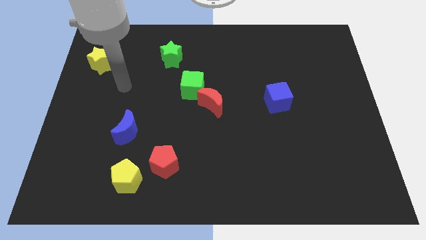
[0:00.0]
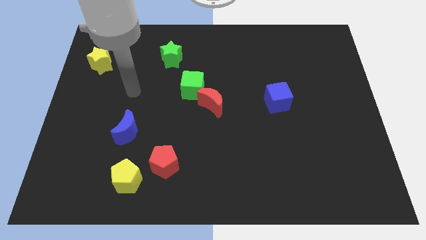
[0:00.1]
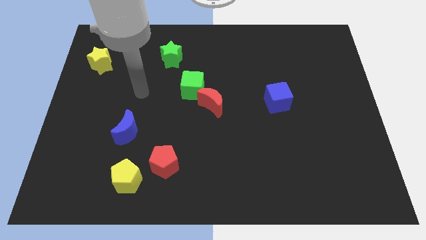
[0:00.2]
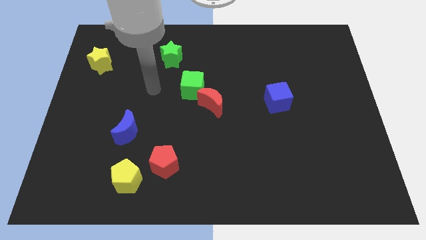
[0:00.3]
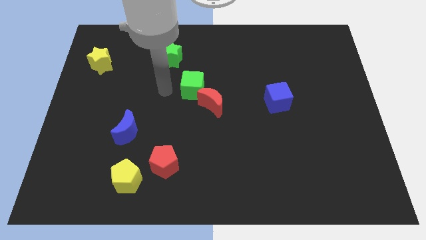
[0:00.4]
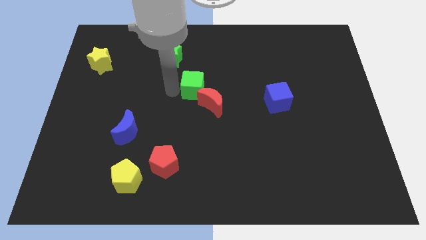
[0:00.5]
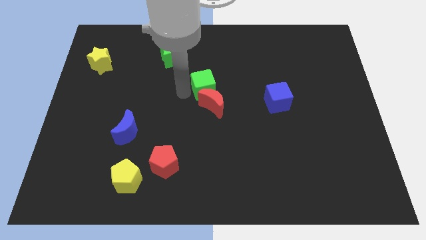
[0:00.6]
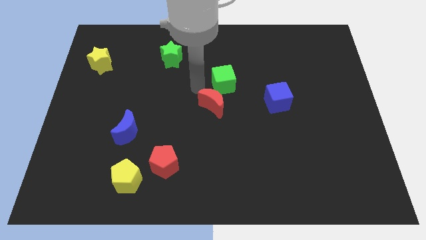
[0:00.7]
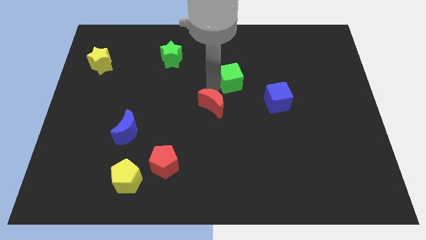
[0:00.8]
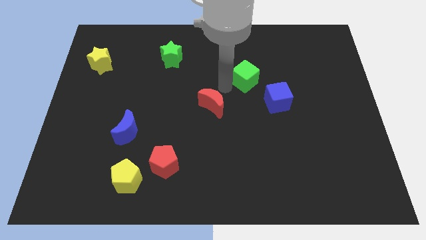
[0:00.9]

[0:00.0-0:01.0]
separate the red moon from the green cube

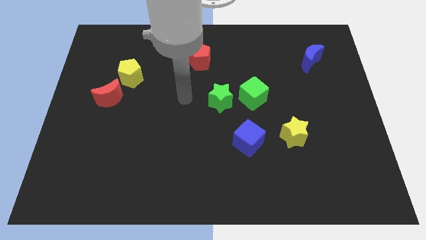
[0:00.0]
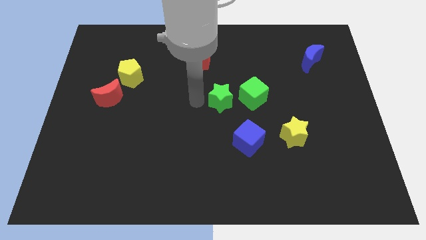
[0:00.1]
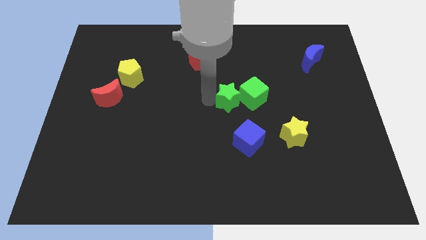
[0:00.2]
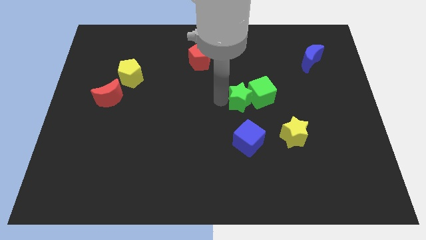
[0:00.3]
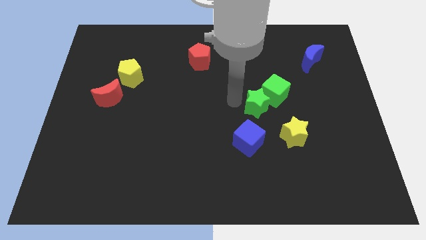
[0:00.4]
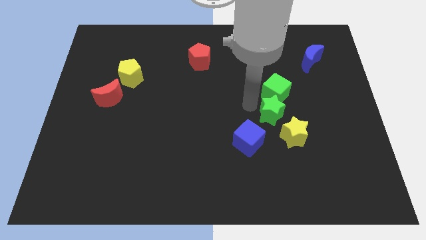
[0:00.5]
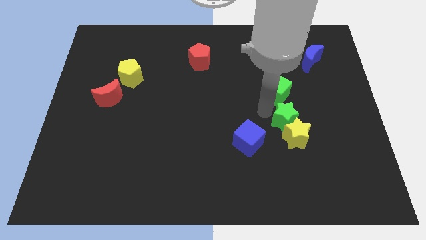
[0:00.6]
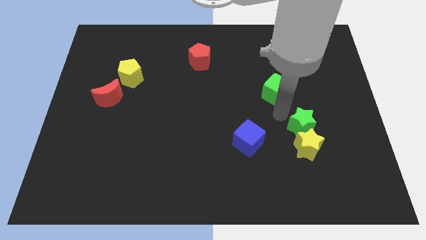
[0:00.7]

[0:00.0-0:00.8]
pull the green cube apart from the green star

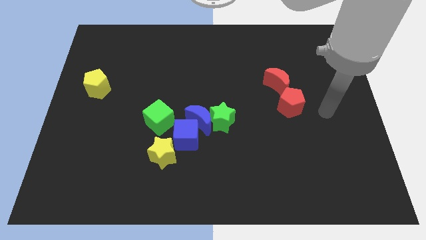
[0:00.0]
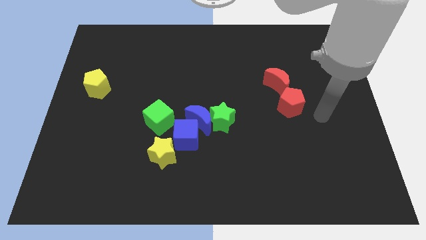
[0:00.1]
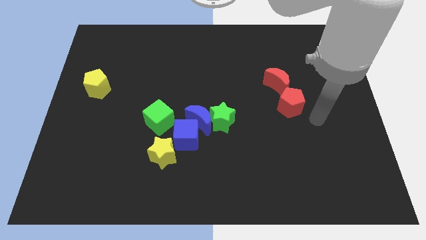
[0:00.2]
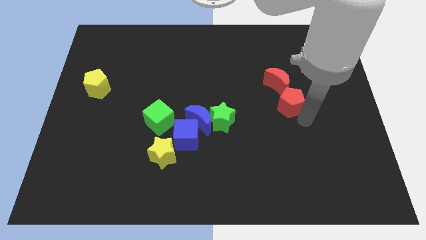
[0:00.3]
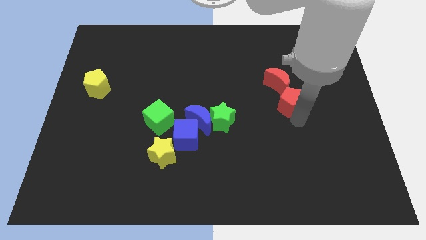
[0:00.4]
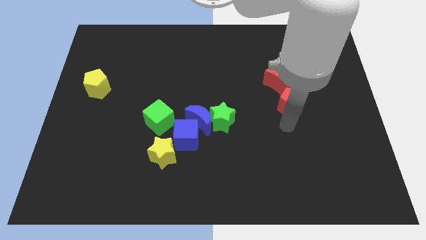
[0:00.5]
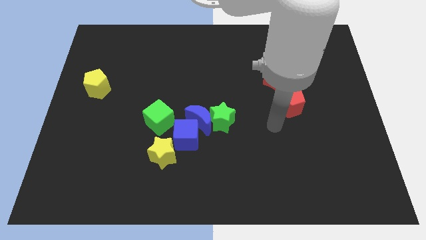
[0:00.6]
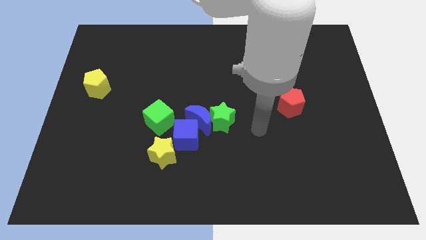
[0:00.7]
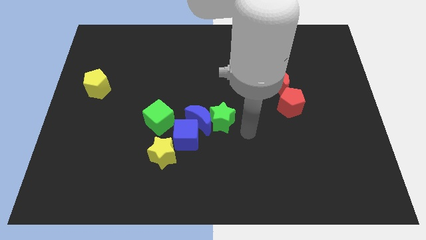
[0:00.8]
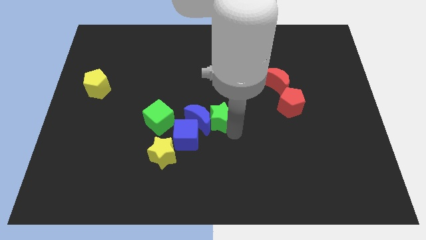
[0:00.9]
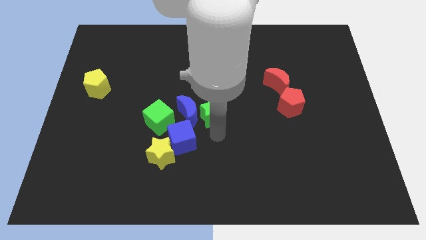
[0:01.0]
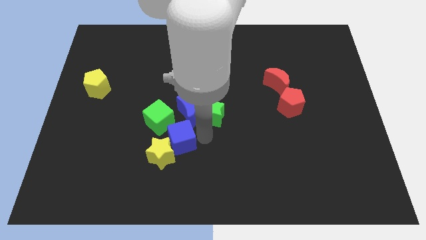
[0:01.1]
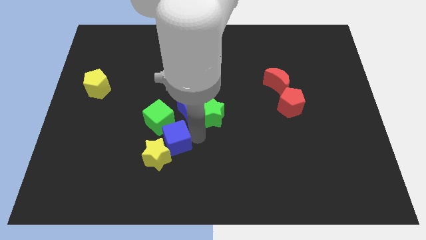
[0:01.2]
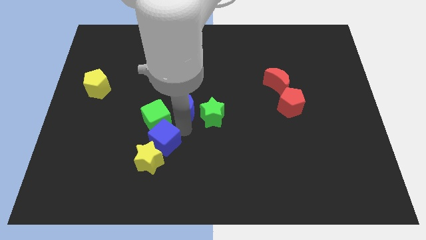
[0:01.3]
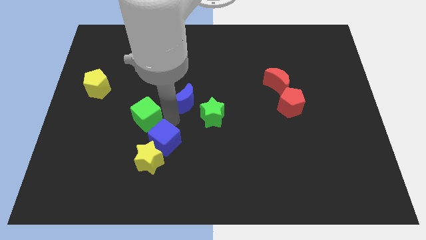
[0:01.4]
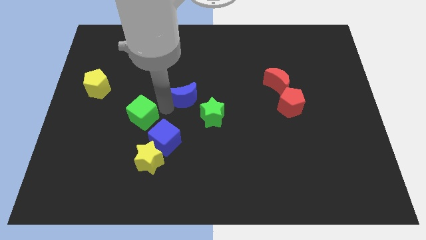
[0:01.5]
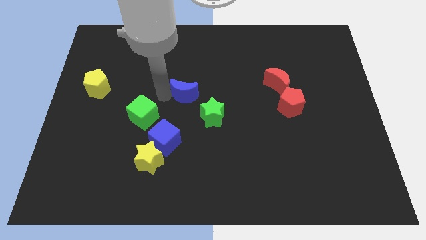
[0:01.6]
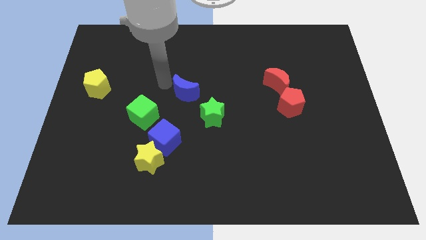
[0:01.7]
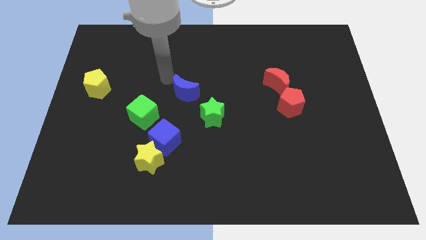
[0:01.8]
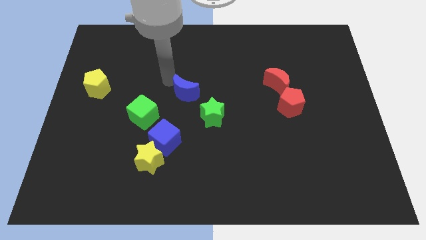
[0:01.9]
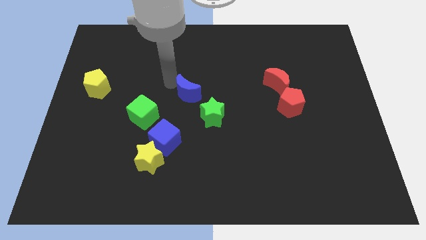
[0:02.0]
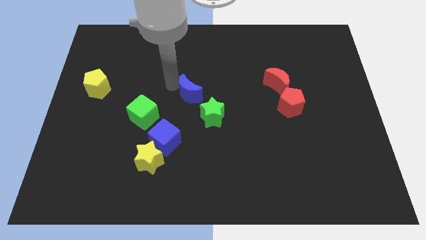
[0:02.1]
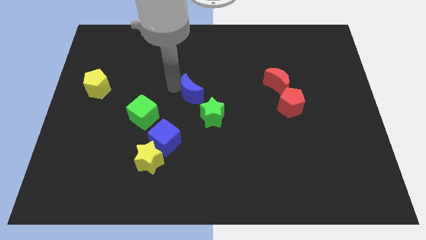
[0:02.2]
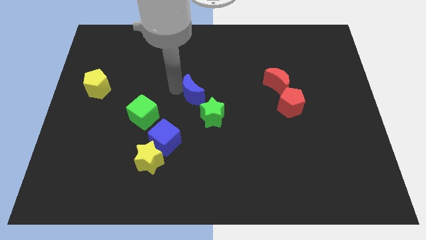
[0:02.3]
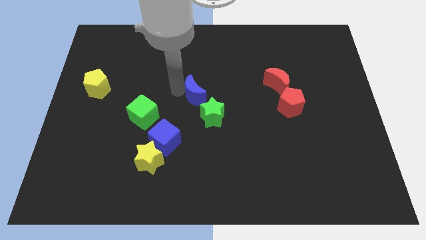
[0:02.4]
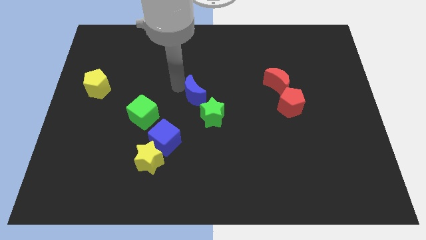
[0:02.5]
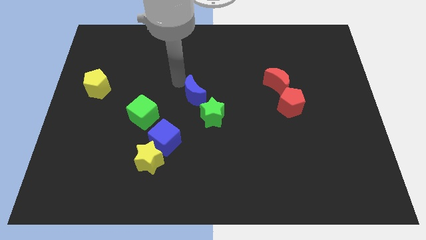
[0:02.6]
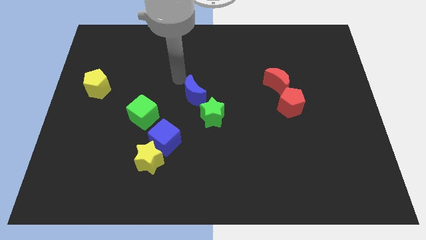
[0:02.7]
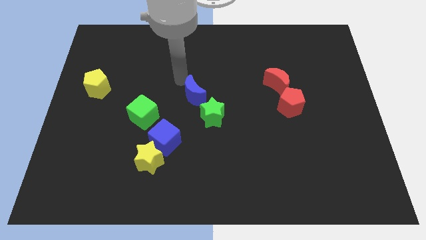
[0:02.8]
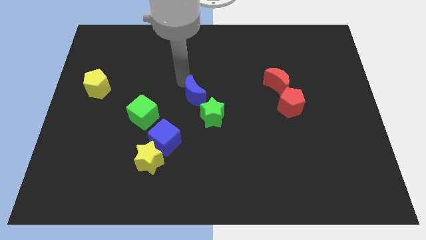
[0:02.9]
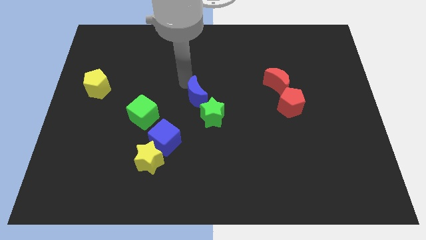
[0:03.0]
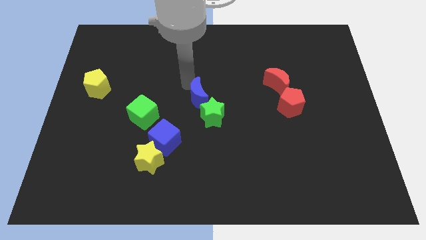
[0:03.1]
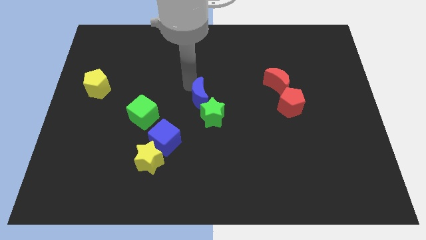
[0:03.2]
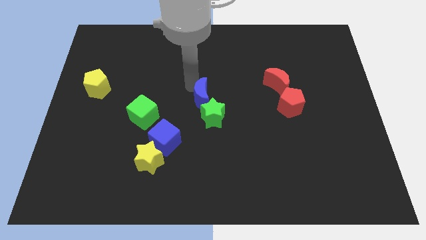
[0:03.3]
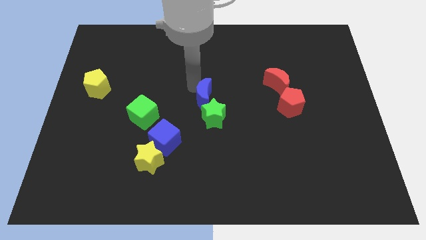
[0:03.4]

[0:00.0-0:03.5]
separate the blue moon from the green star, blue cube, and green cube

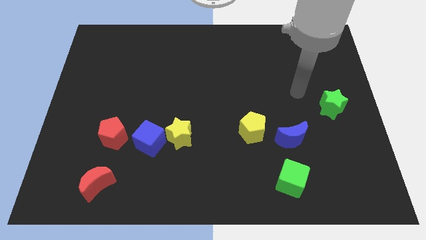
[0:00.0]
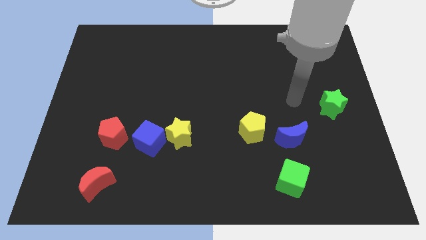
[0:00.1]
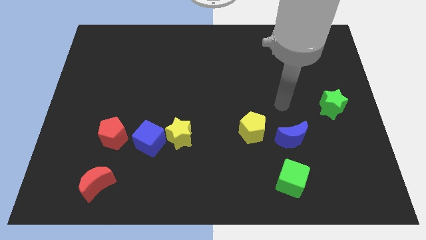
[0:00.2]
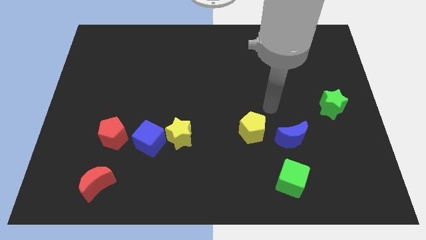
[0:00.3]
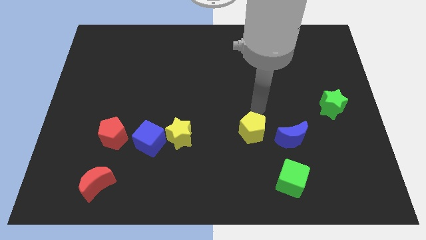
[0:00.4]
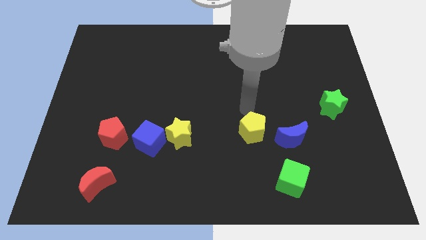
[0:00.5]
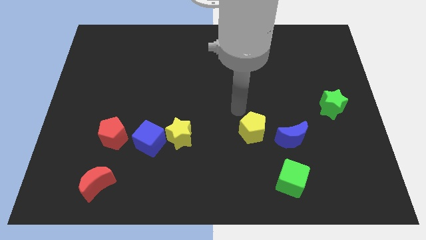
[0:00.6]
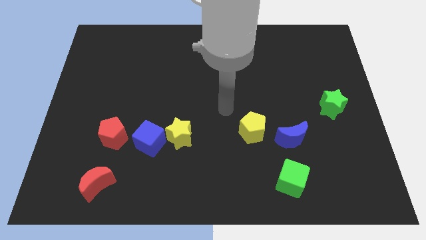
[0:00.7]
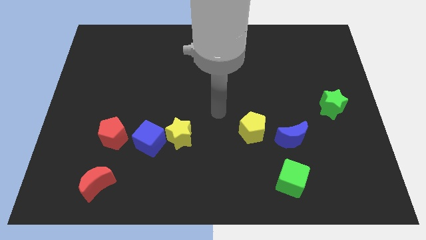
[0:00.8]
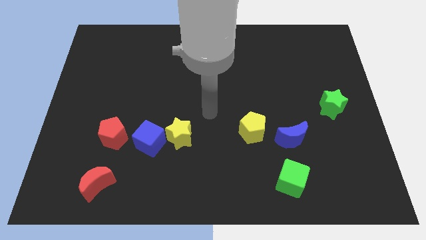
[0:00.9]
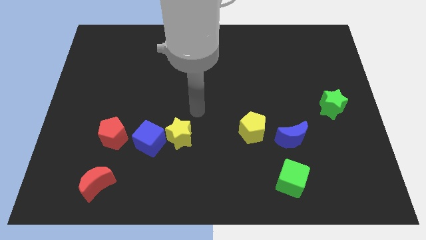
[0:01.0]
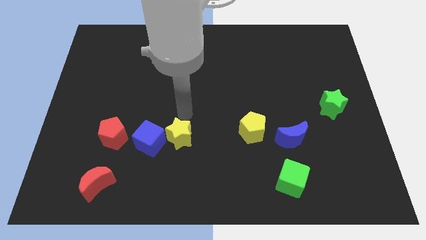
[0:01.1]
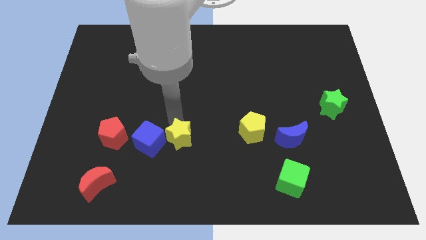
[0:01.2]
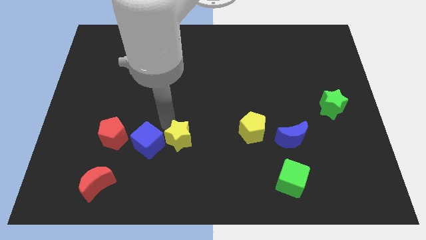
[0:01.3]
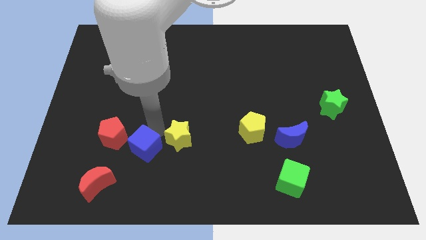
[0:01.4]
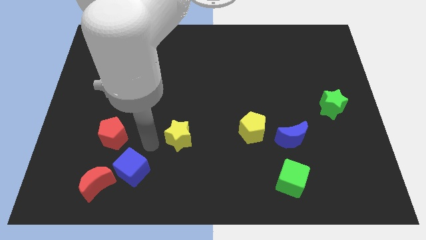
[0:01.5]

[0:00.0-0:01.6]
pull the yellow star apart from the blue cube

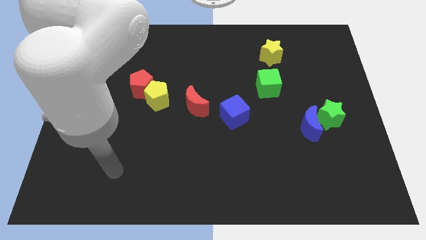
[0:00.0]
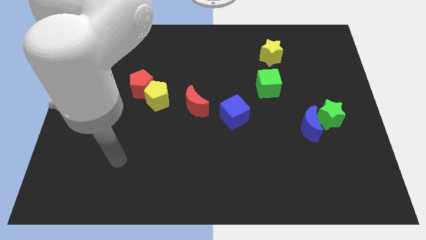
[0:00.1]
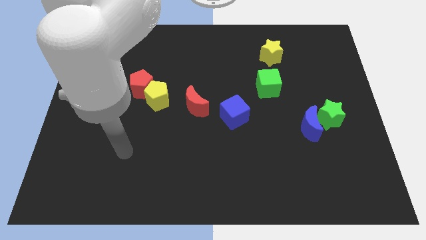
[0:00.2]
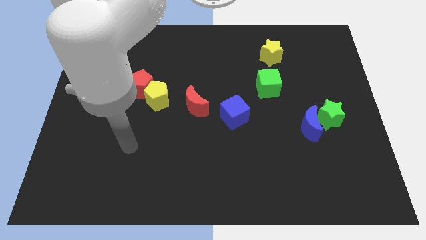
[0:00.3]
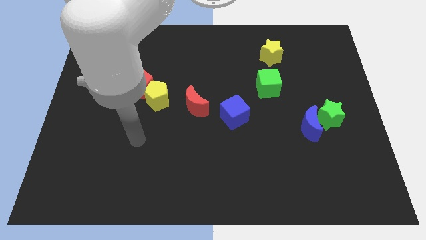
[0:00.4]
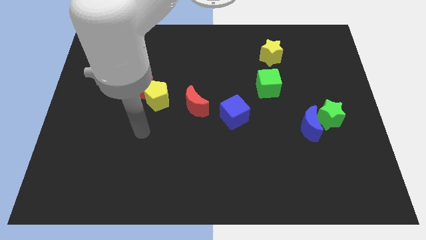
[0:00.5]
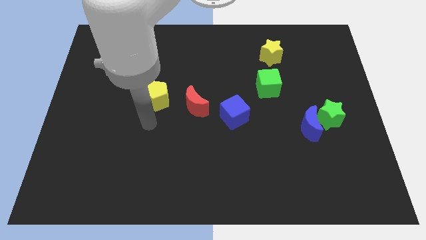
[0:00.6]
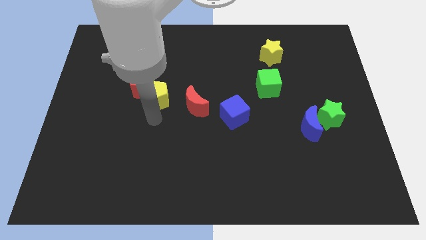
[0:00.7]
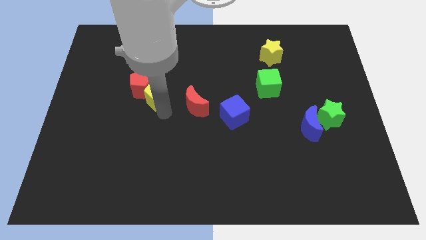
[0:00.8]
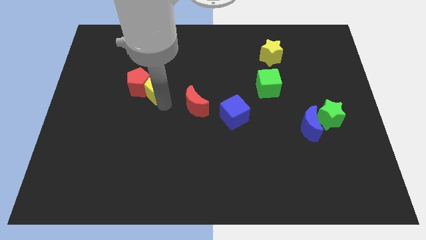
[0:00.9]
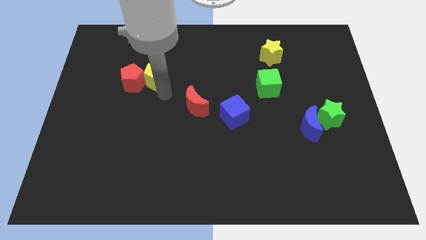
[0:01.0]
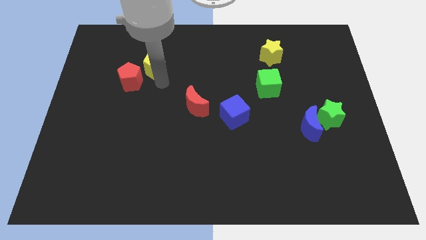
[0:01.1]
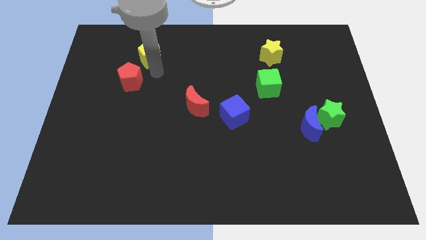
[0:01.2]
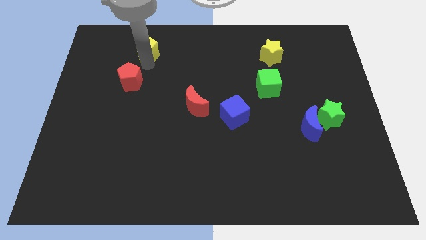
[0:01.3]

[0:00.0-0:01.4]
pull the red pentagon apart from the yellow pentagon

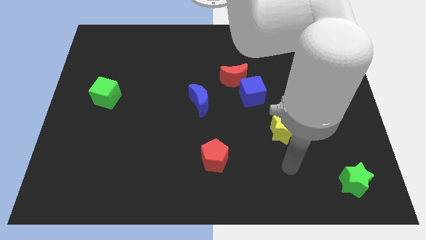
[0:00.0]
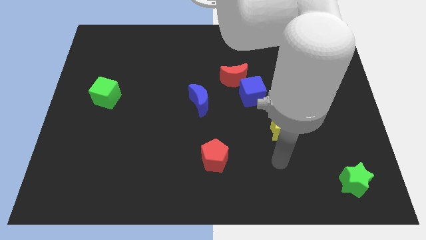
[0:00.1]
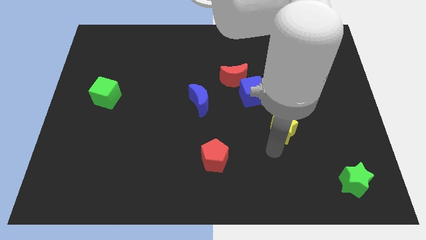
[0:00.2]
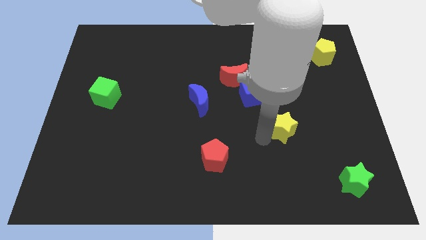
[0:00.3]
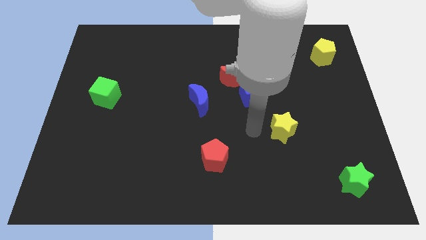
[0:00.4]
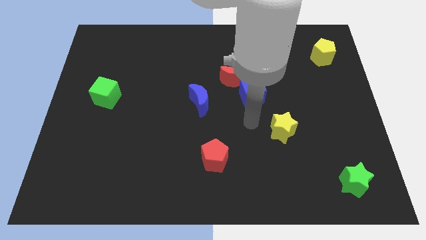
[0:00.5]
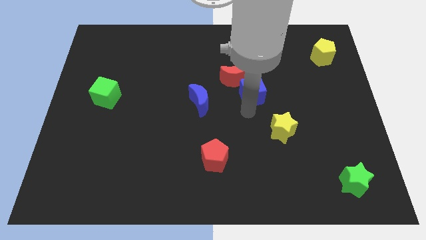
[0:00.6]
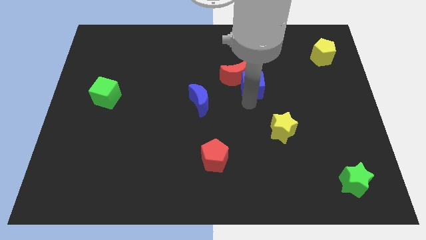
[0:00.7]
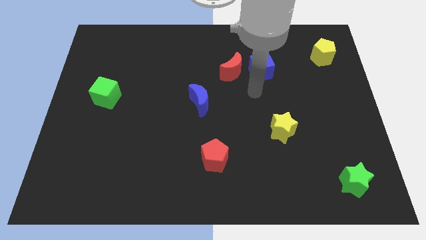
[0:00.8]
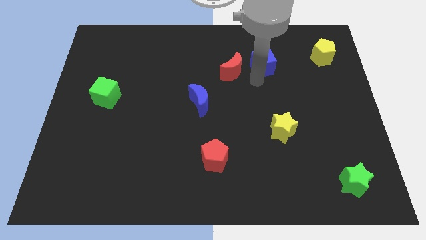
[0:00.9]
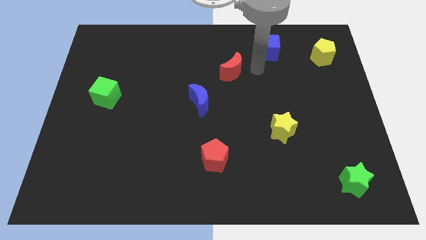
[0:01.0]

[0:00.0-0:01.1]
pull the red moon apart from the blue cube
